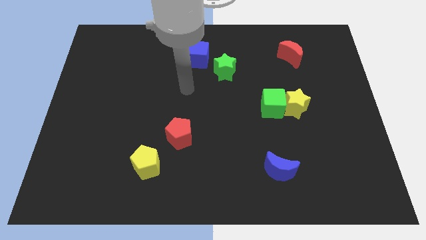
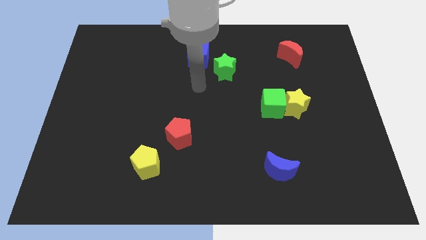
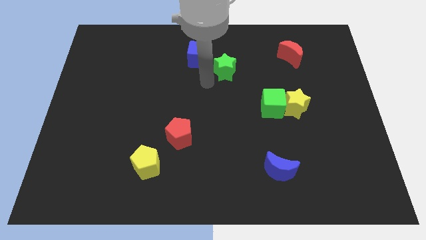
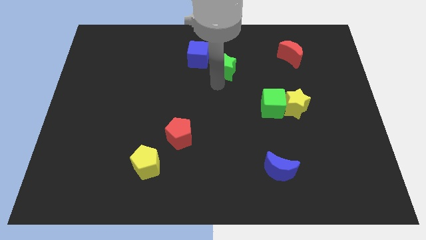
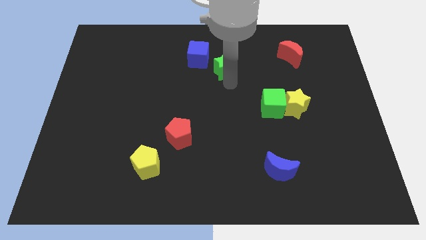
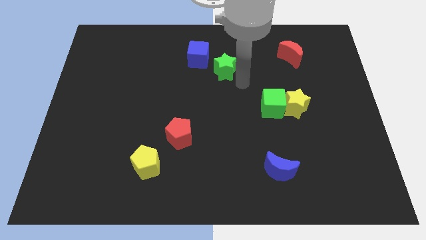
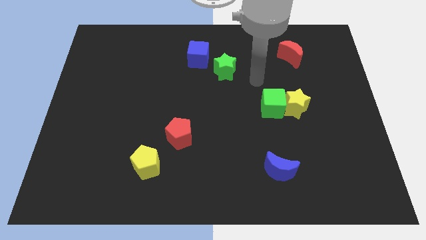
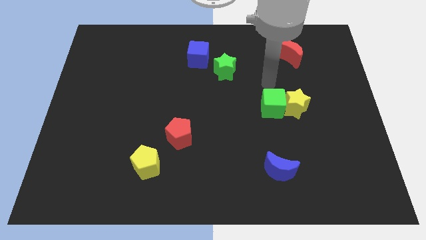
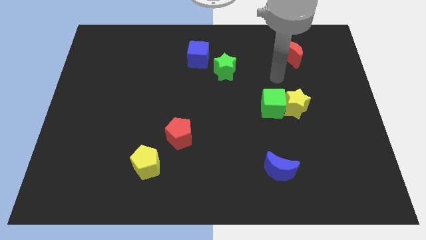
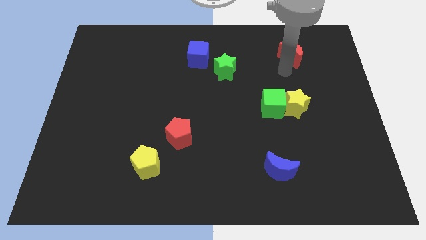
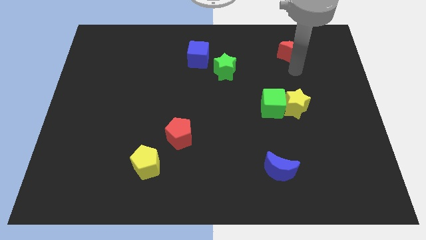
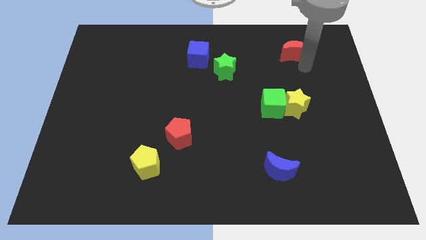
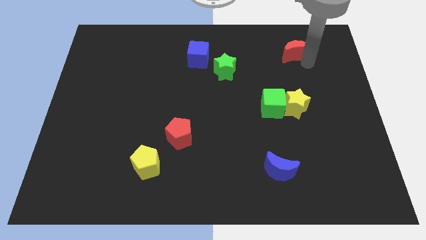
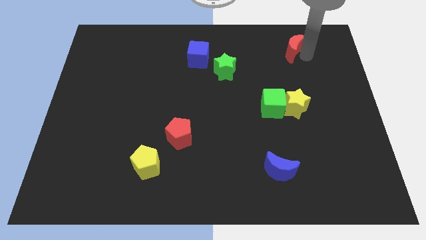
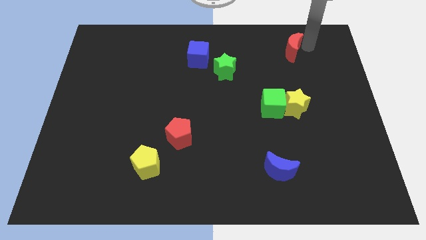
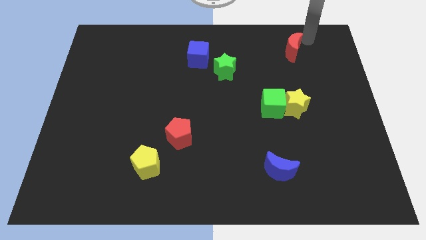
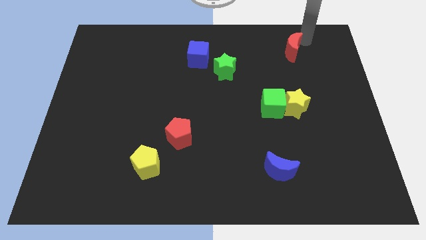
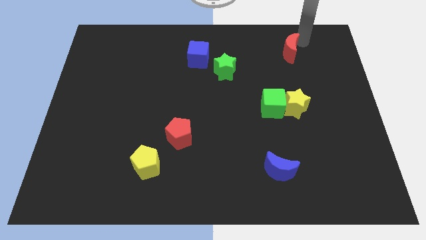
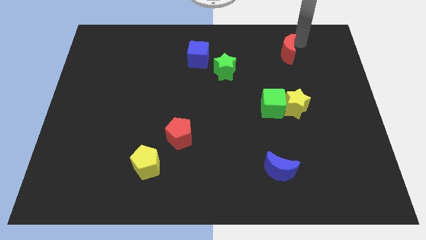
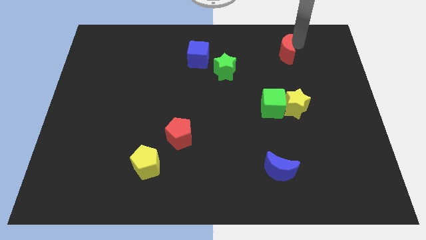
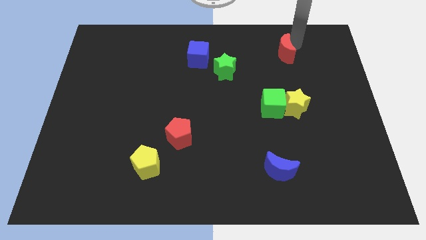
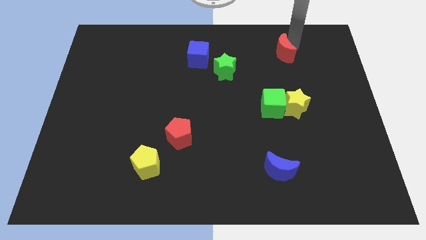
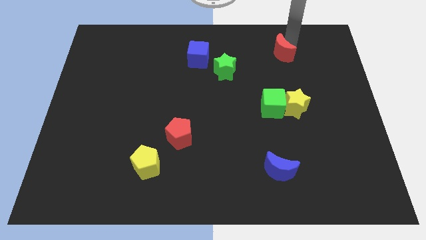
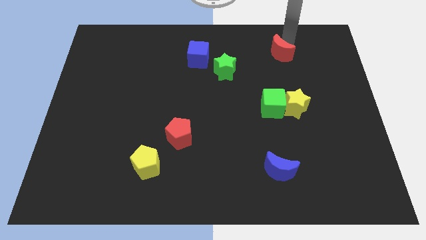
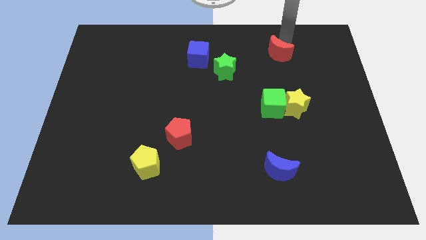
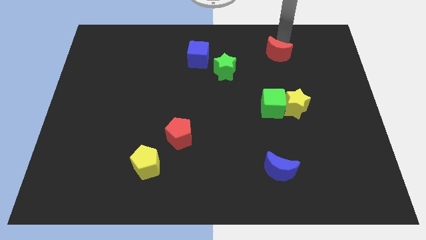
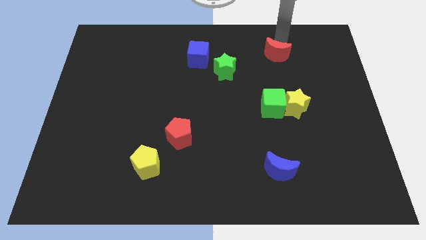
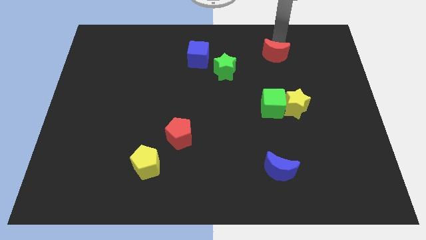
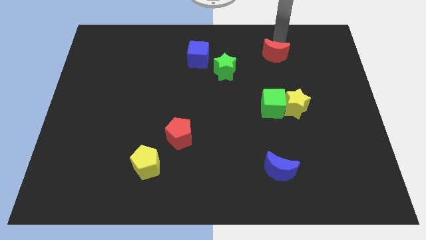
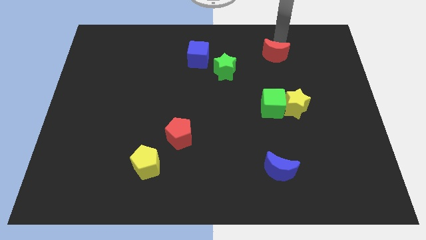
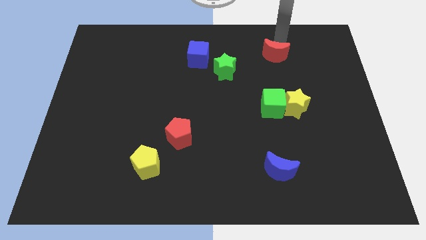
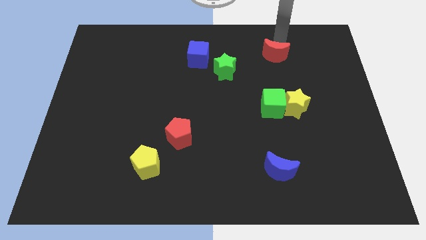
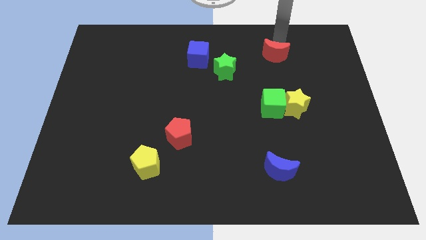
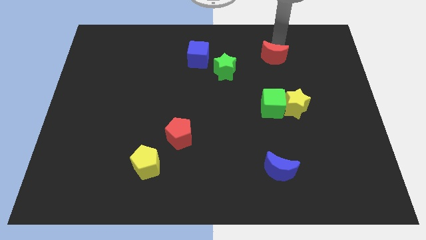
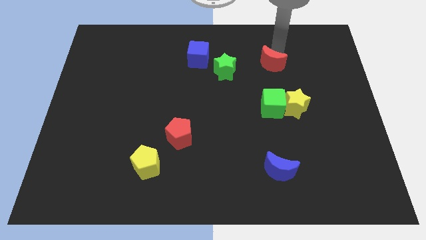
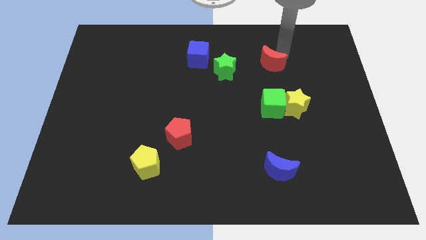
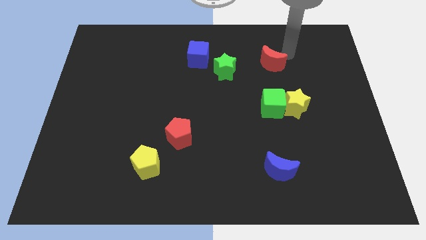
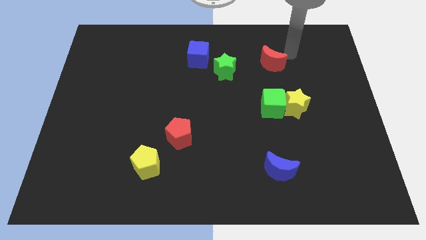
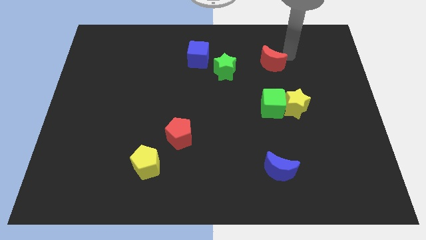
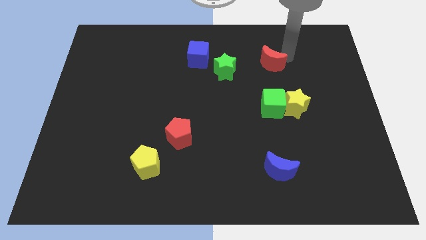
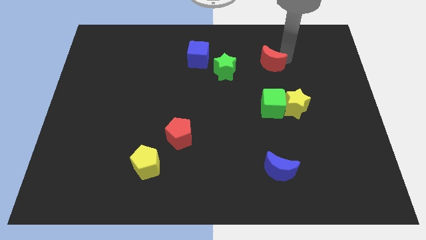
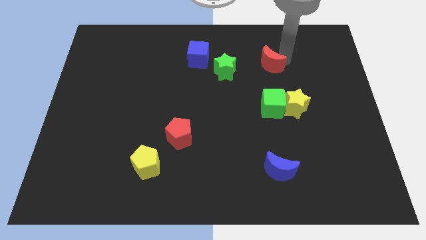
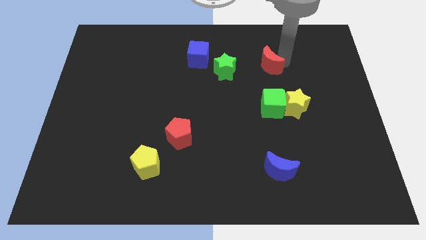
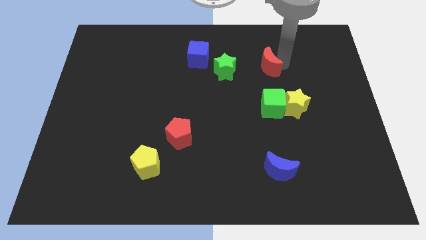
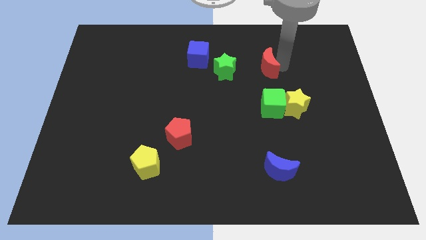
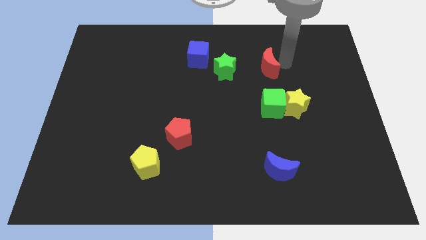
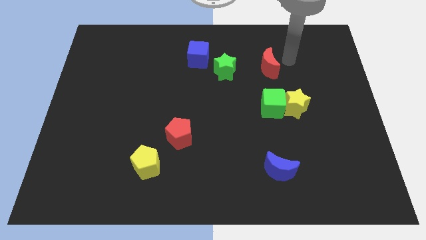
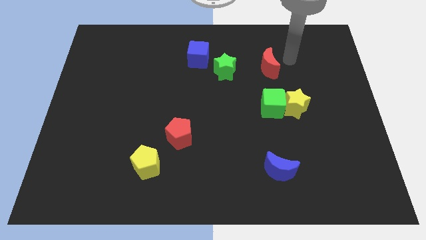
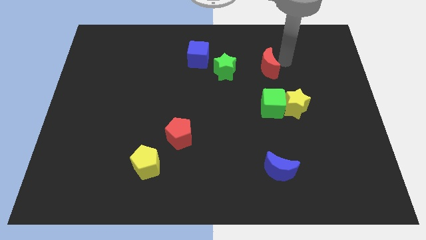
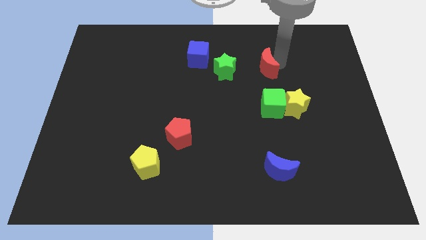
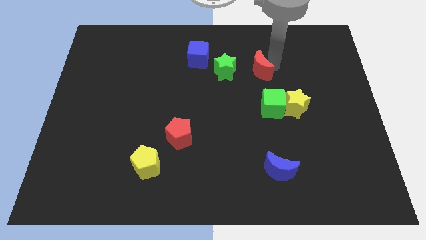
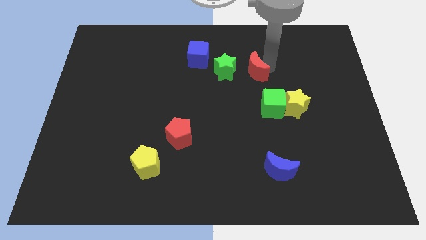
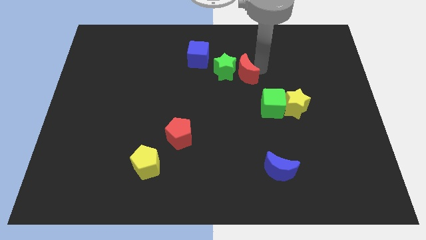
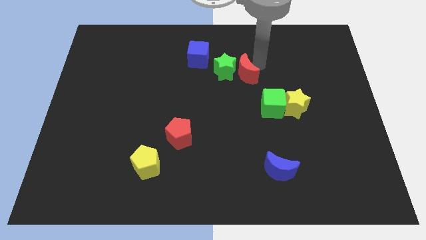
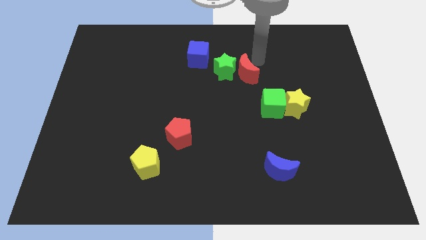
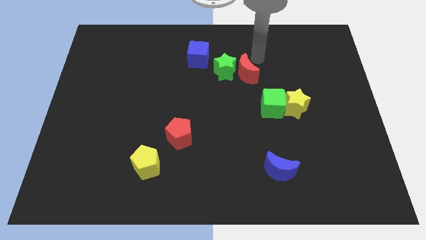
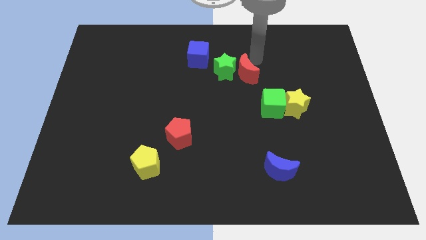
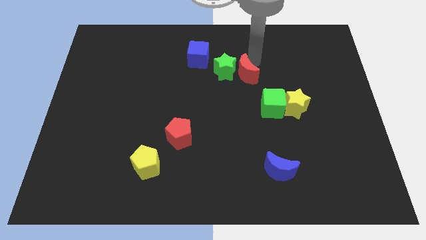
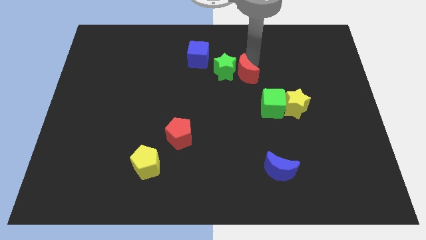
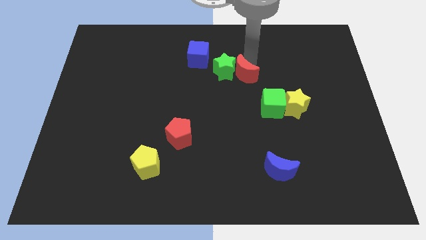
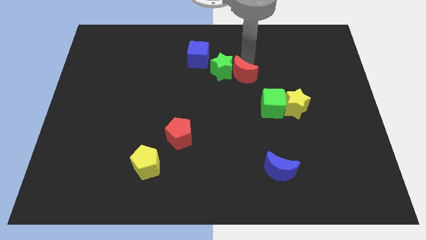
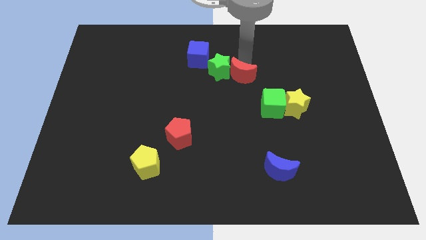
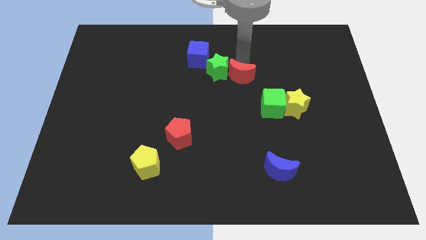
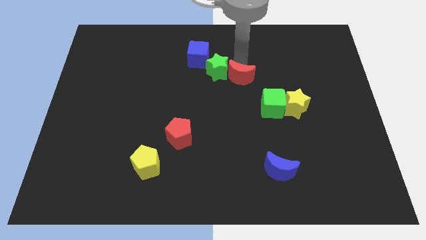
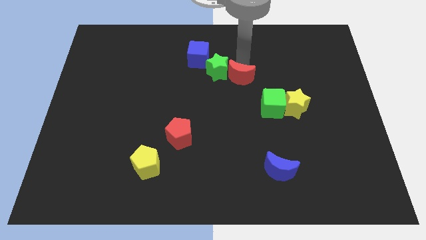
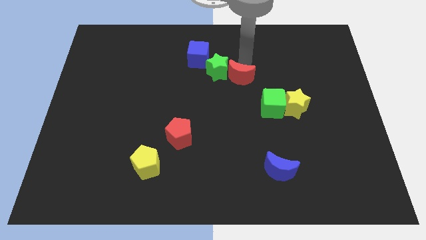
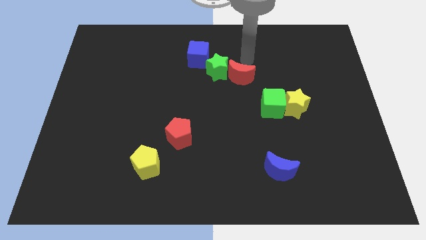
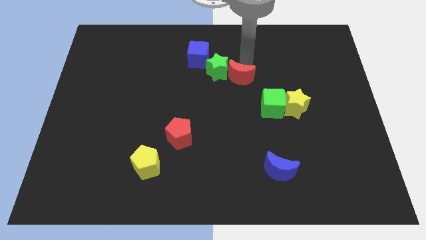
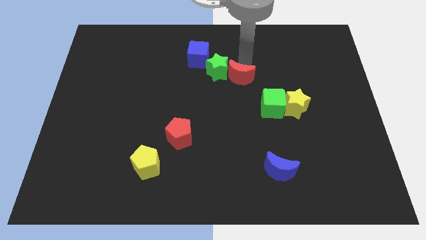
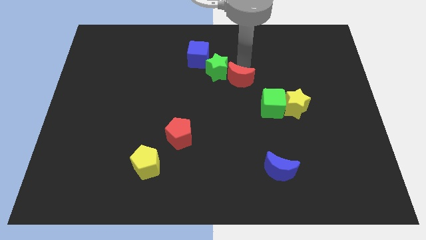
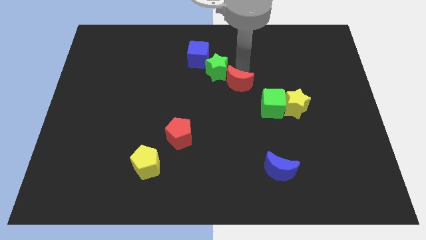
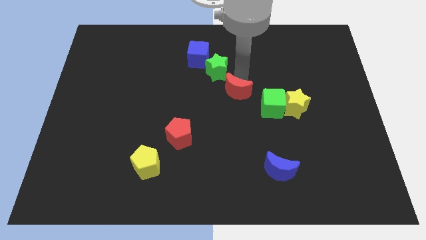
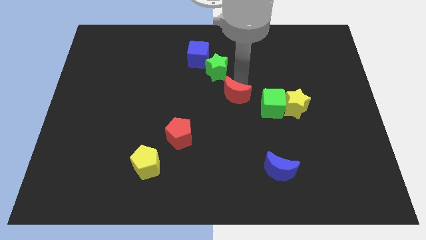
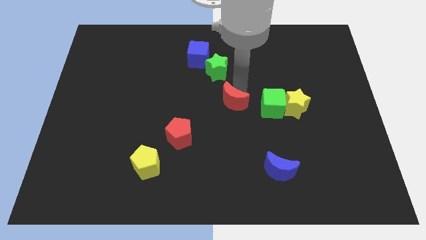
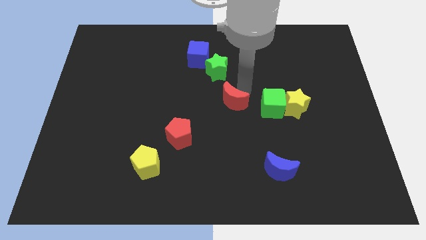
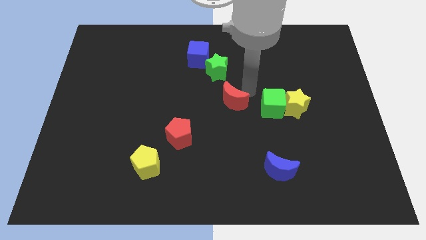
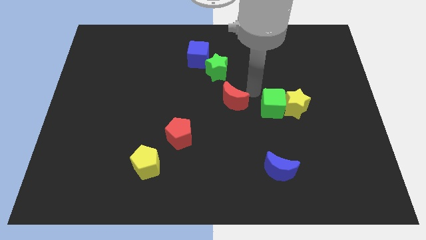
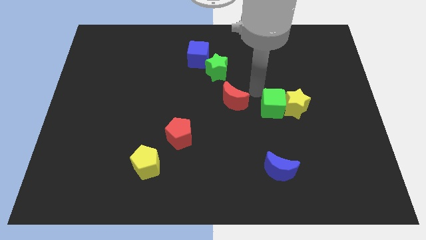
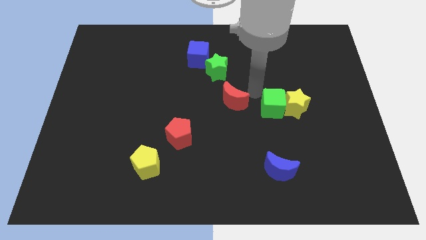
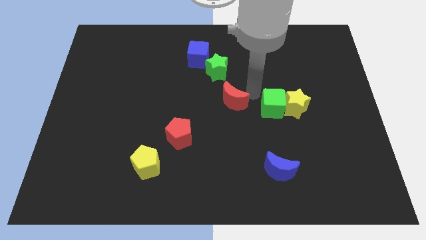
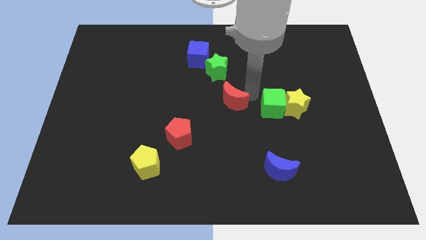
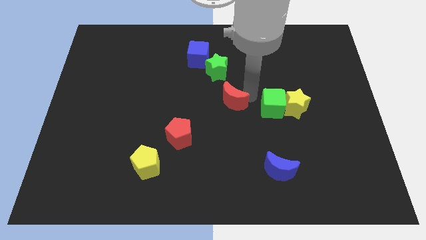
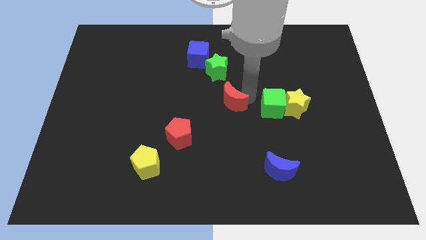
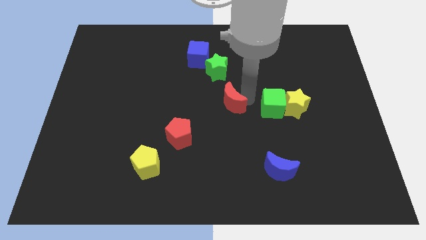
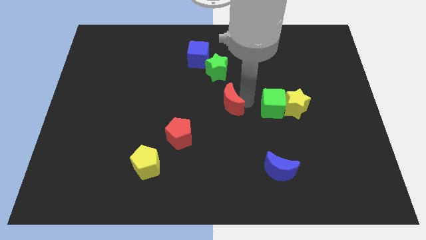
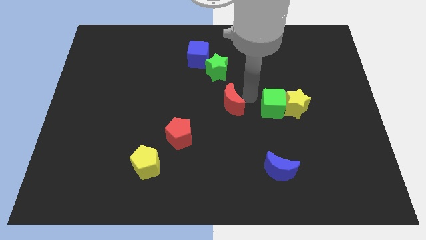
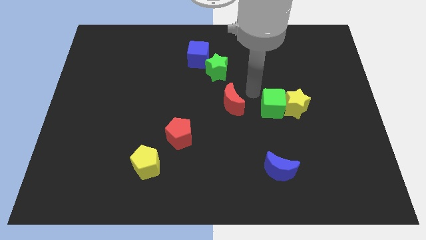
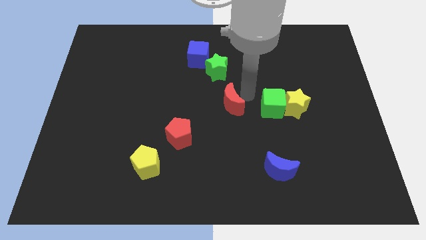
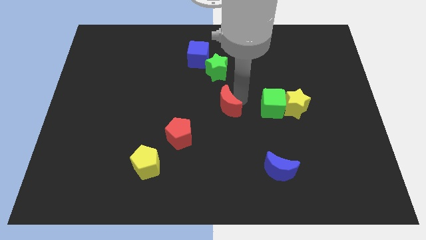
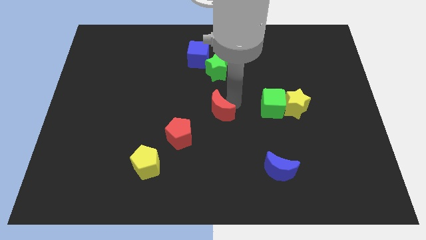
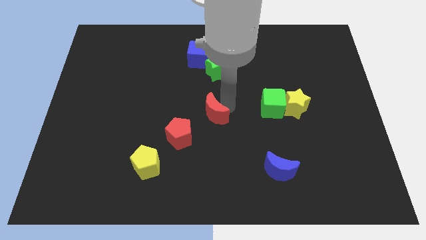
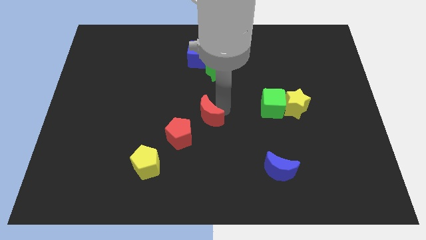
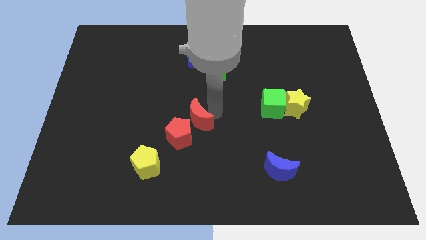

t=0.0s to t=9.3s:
put the red moon to the red pentagon
